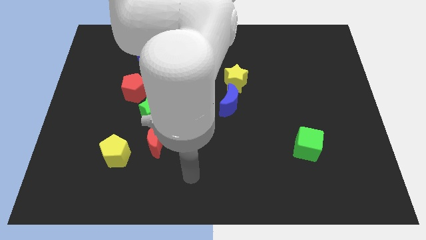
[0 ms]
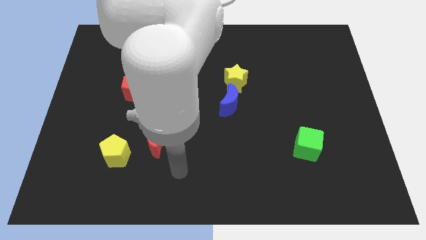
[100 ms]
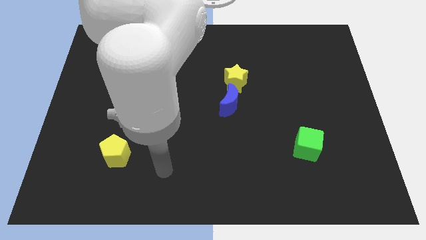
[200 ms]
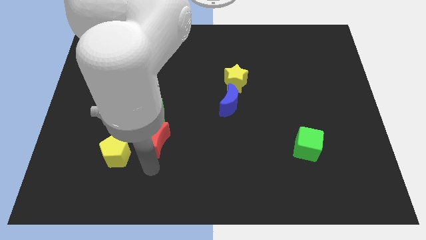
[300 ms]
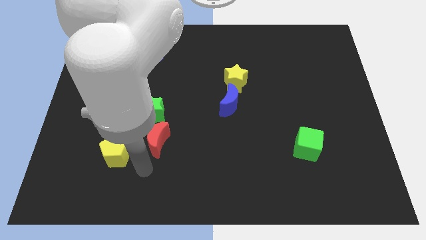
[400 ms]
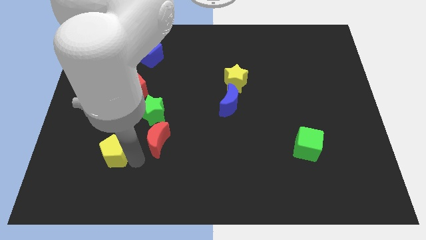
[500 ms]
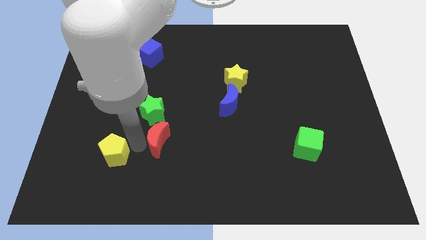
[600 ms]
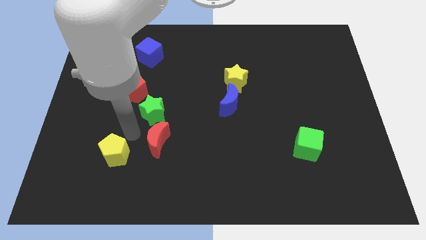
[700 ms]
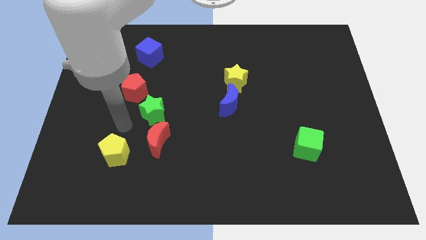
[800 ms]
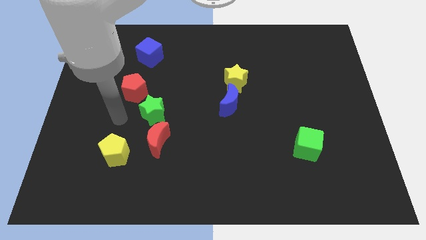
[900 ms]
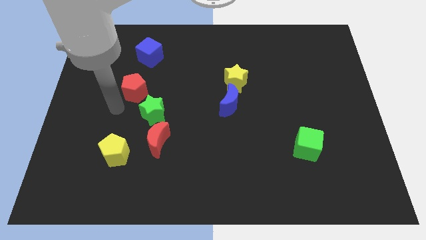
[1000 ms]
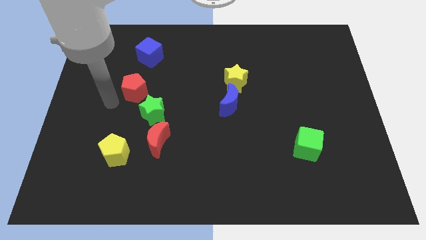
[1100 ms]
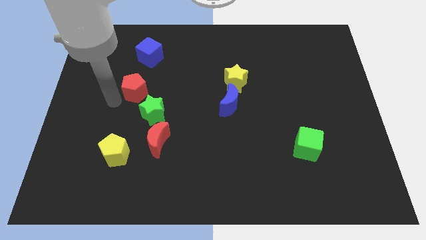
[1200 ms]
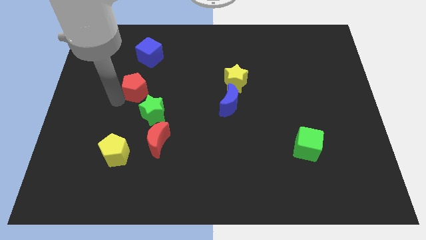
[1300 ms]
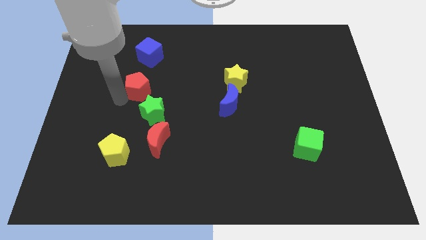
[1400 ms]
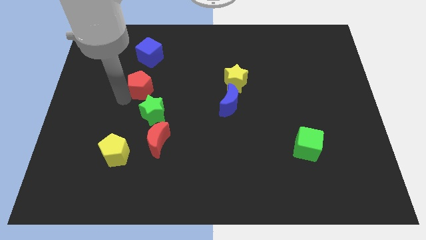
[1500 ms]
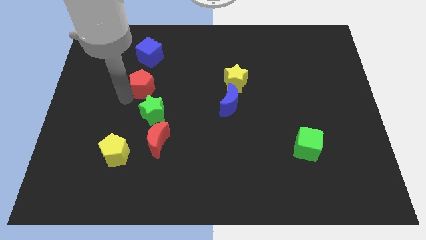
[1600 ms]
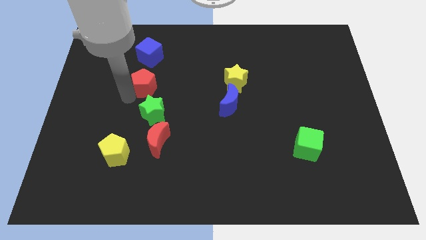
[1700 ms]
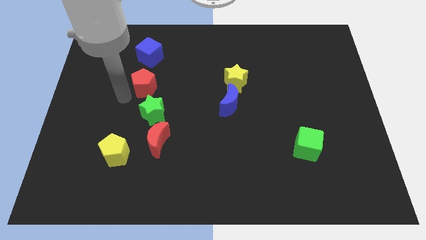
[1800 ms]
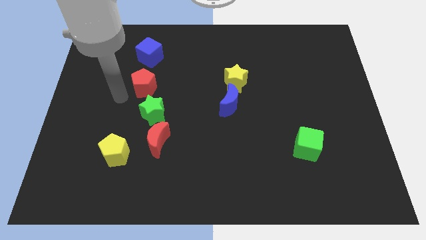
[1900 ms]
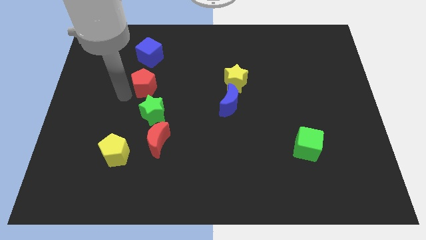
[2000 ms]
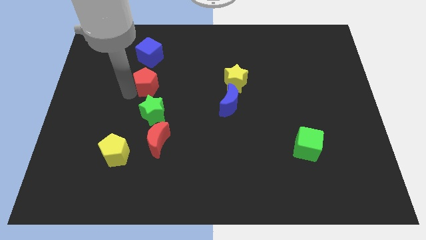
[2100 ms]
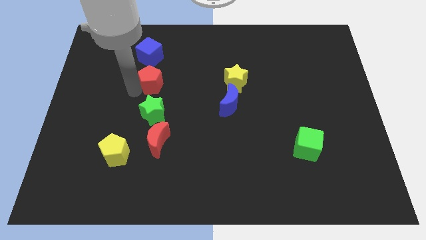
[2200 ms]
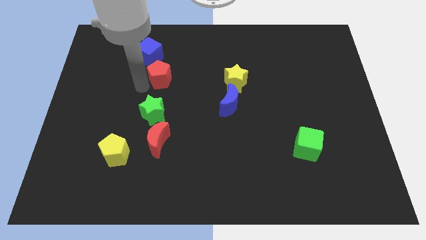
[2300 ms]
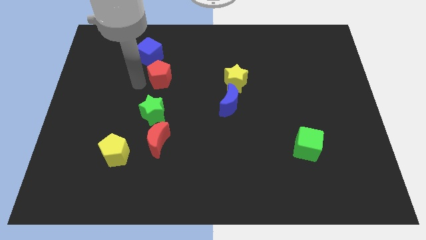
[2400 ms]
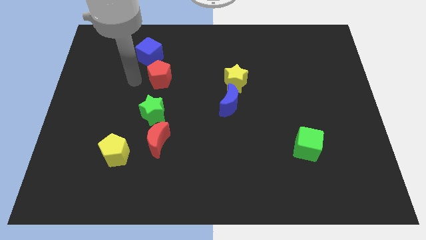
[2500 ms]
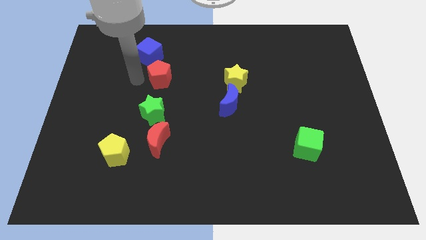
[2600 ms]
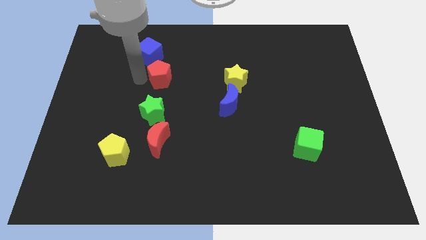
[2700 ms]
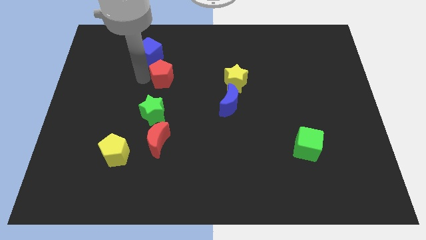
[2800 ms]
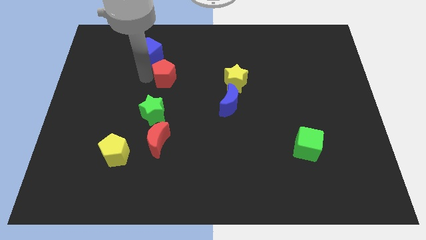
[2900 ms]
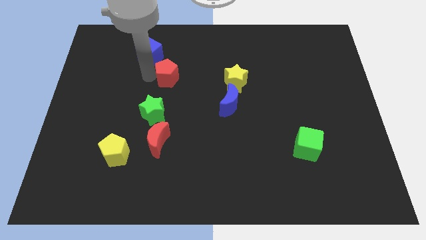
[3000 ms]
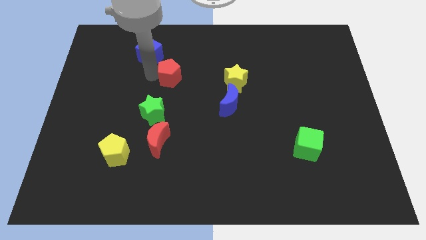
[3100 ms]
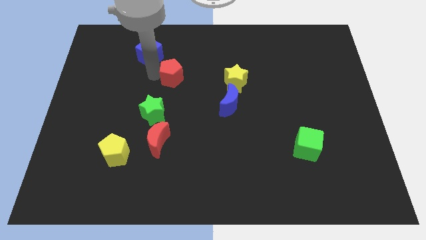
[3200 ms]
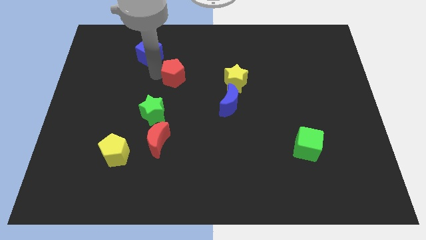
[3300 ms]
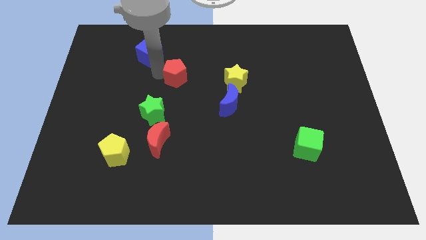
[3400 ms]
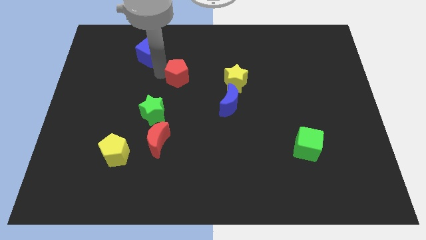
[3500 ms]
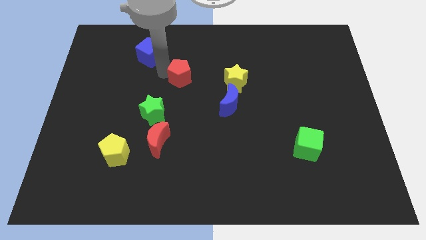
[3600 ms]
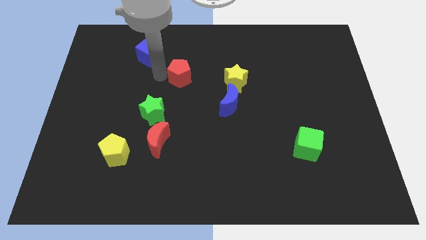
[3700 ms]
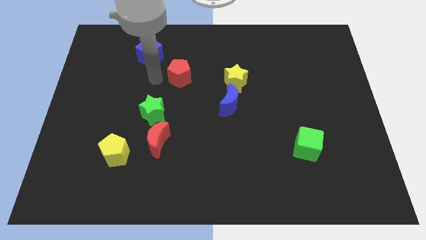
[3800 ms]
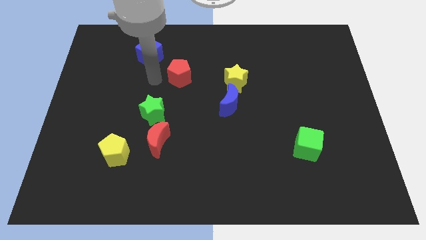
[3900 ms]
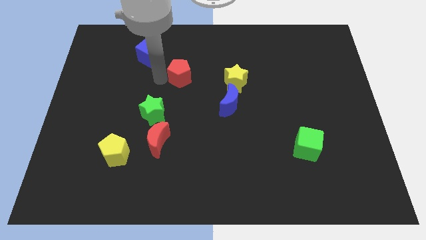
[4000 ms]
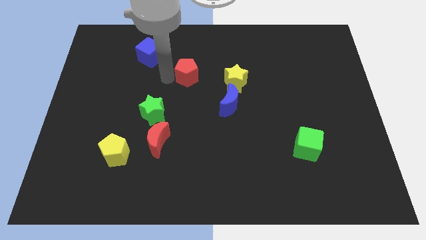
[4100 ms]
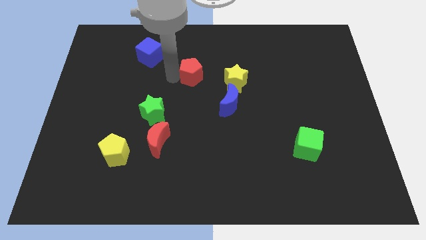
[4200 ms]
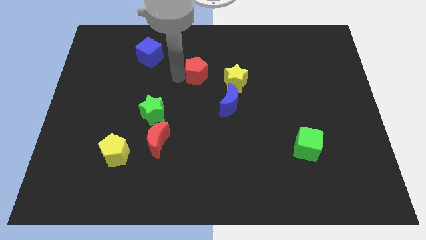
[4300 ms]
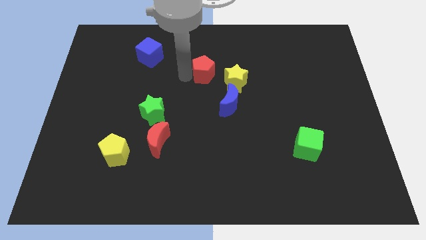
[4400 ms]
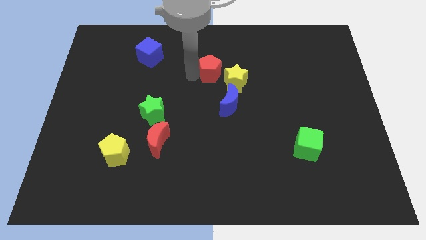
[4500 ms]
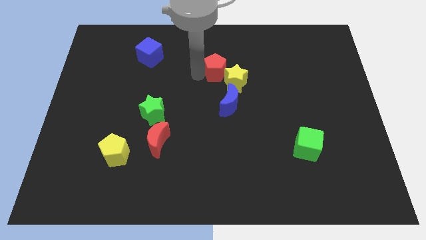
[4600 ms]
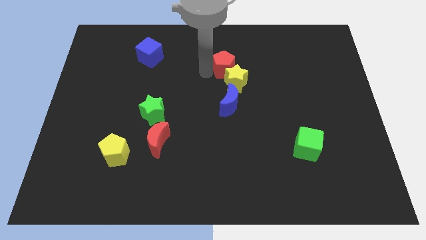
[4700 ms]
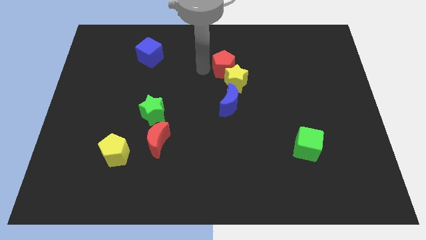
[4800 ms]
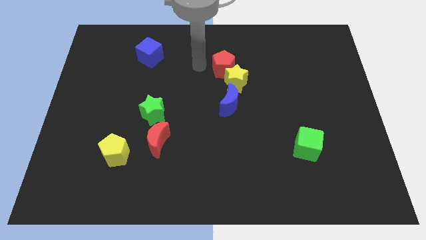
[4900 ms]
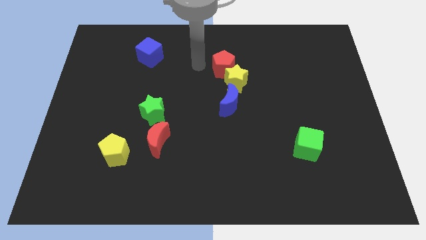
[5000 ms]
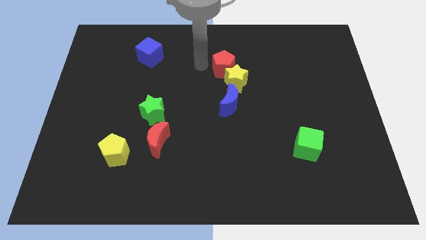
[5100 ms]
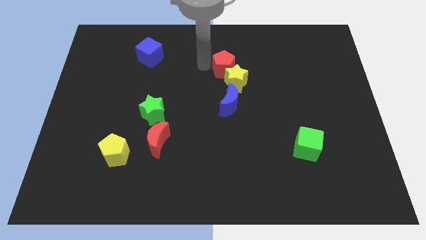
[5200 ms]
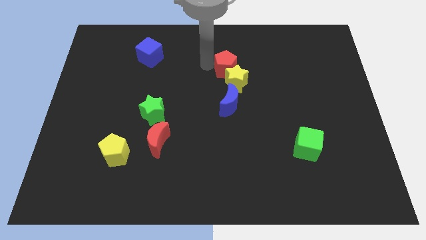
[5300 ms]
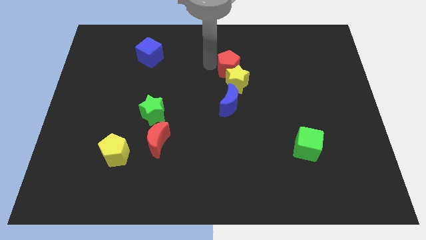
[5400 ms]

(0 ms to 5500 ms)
slide the red pentagon right

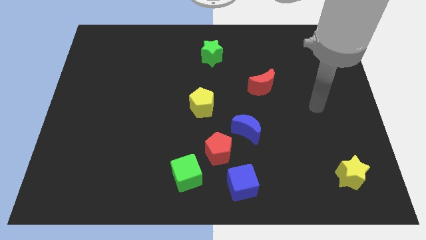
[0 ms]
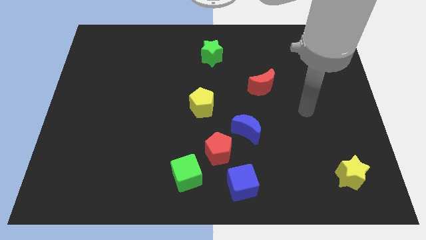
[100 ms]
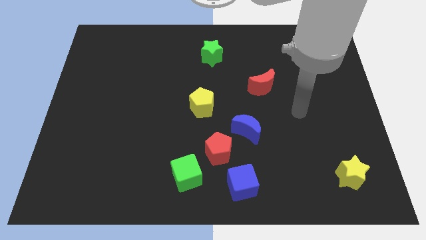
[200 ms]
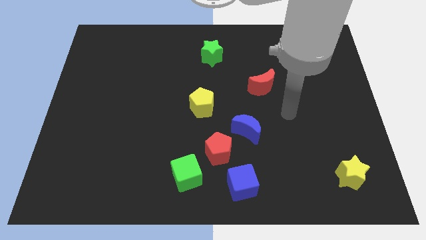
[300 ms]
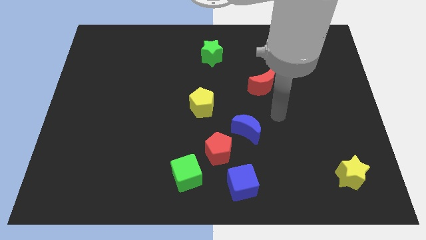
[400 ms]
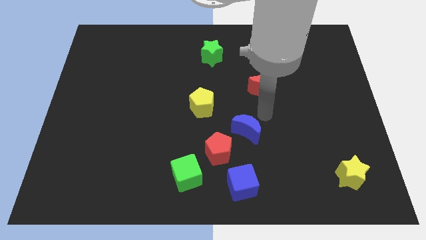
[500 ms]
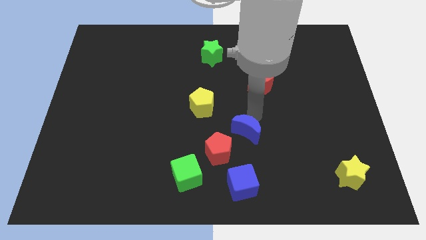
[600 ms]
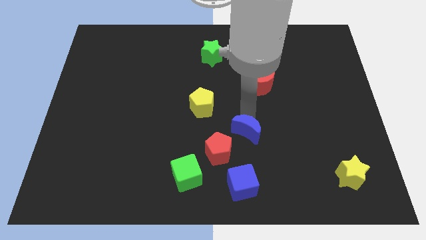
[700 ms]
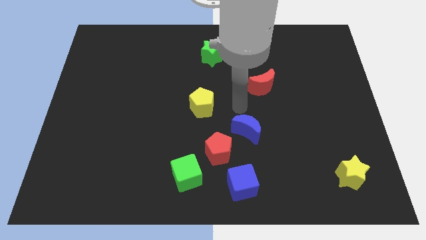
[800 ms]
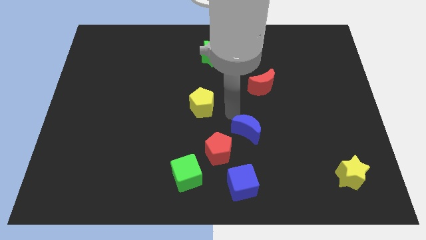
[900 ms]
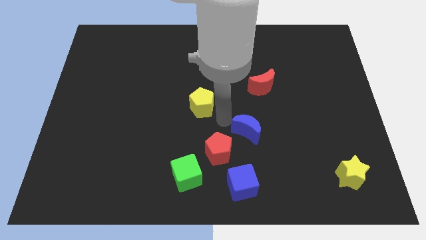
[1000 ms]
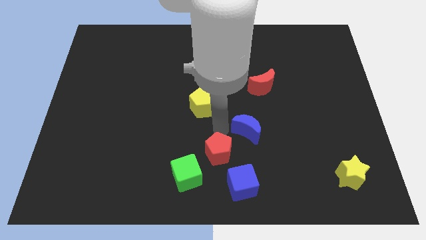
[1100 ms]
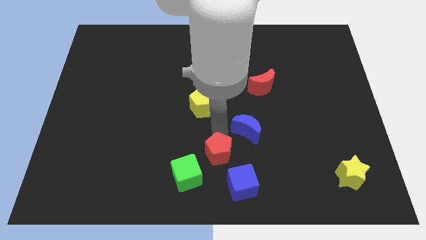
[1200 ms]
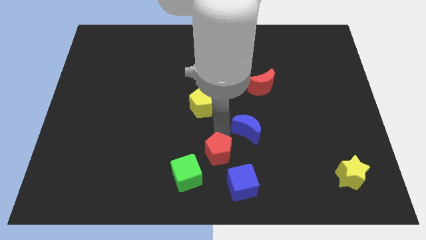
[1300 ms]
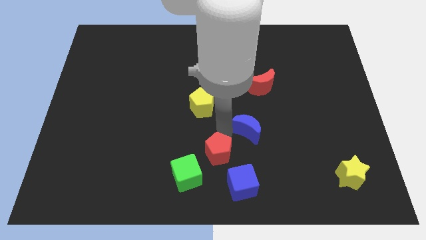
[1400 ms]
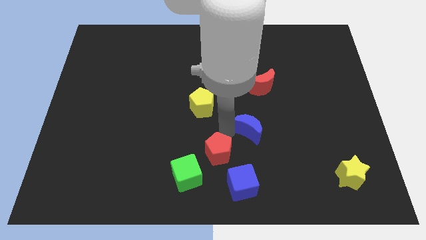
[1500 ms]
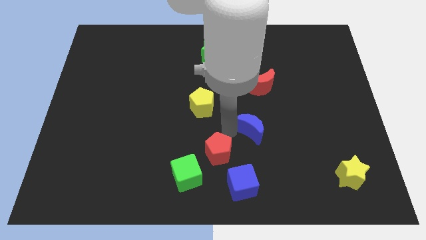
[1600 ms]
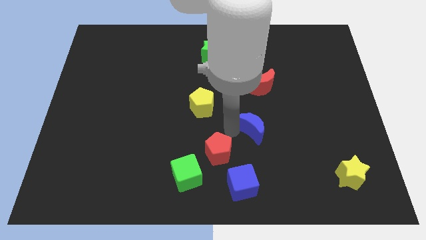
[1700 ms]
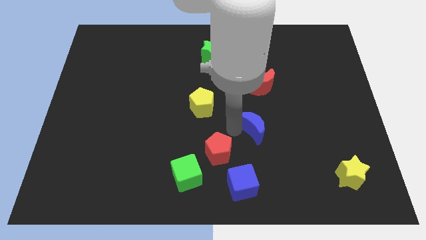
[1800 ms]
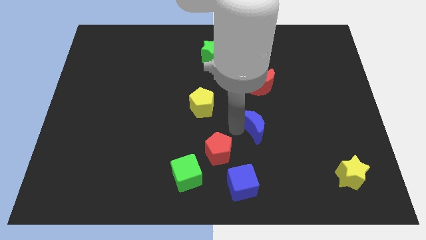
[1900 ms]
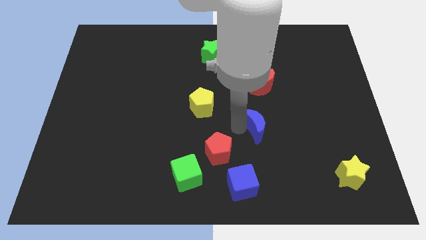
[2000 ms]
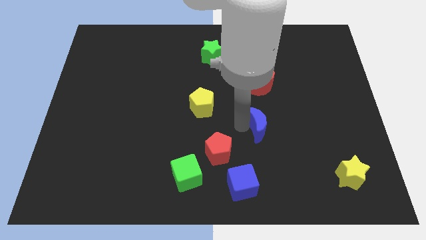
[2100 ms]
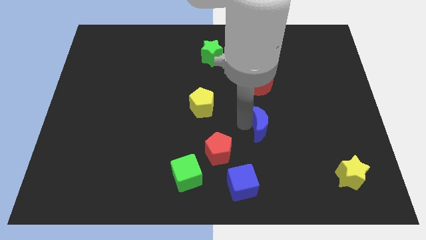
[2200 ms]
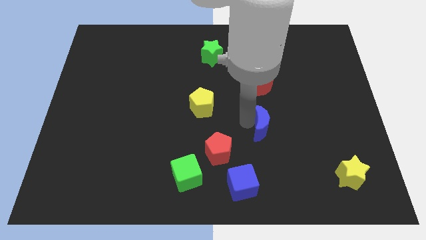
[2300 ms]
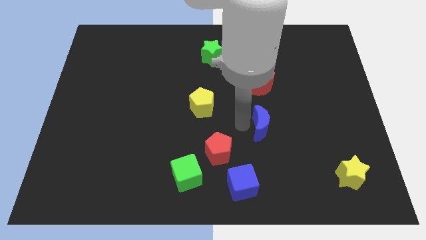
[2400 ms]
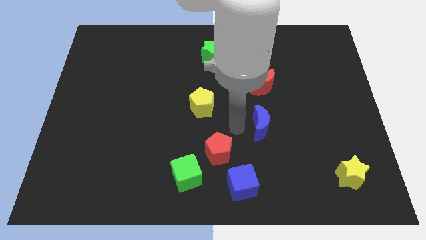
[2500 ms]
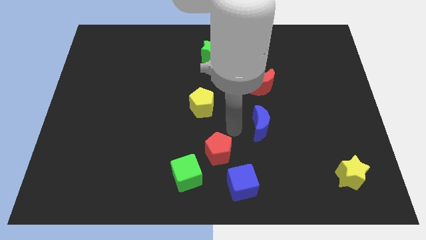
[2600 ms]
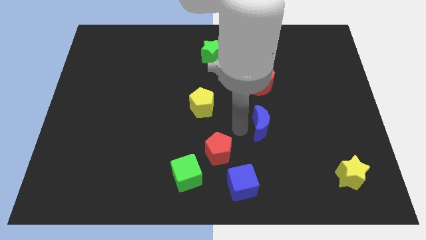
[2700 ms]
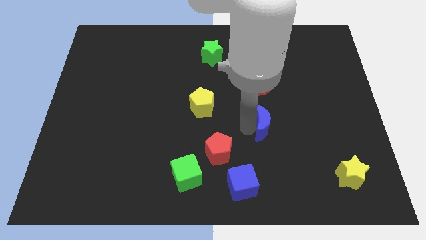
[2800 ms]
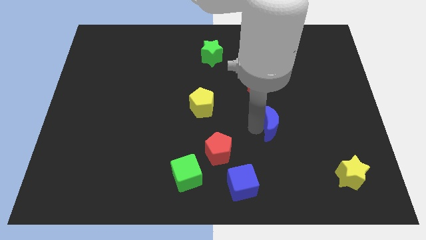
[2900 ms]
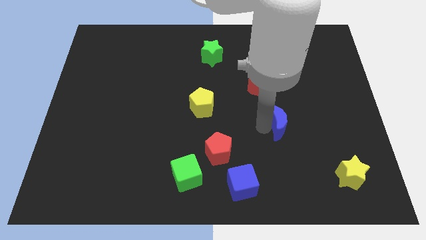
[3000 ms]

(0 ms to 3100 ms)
move the blue moon to the right a little
